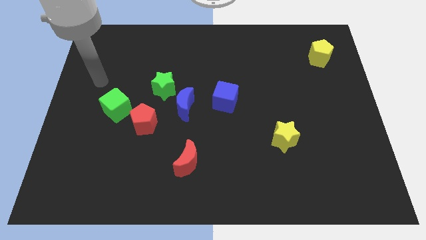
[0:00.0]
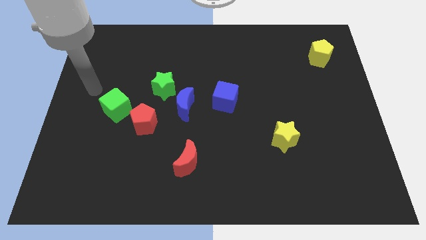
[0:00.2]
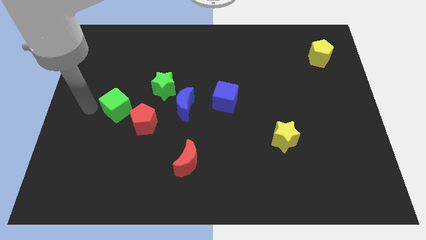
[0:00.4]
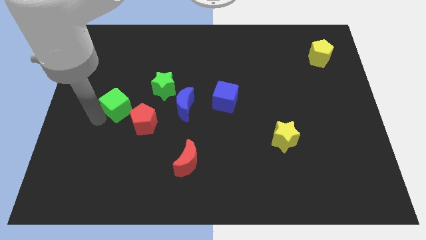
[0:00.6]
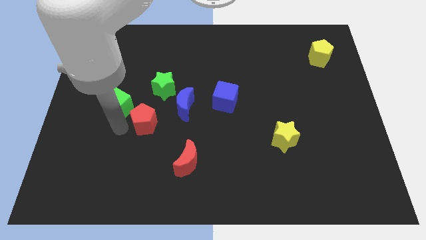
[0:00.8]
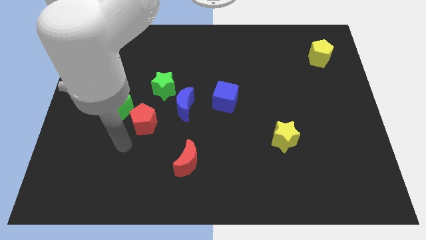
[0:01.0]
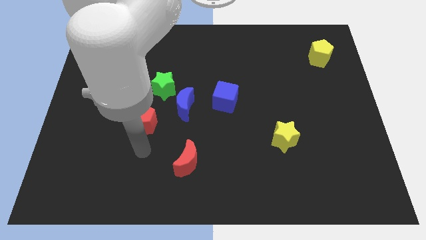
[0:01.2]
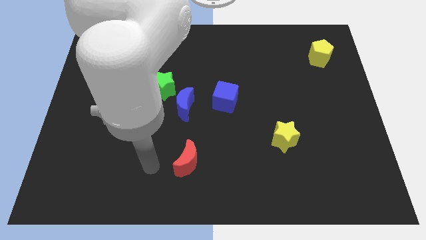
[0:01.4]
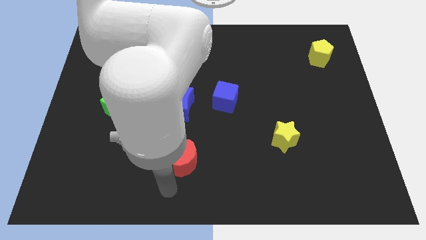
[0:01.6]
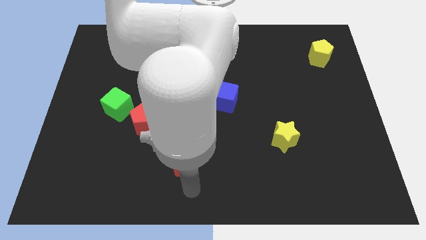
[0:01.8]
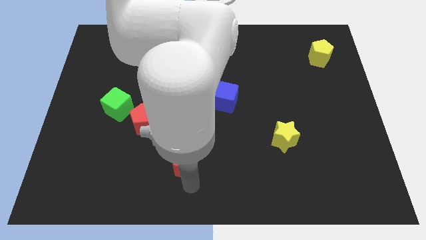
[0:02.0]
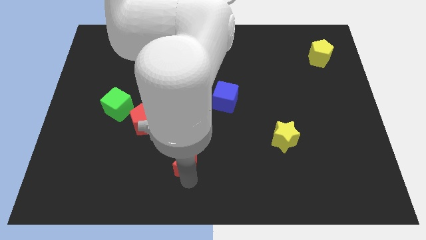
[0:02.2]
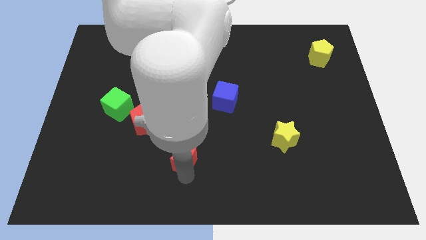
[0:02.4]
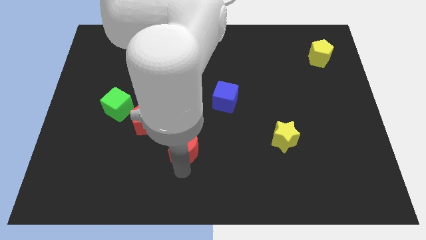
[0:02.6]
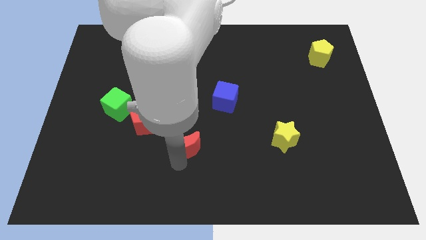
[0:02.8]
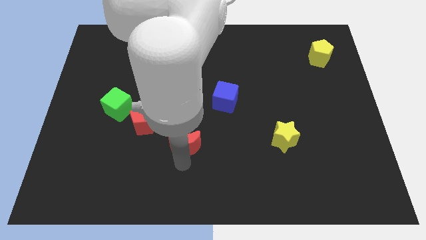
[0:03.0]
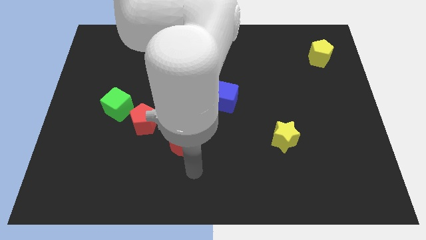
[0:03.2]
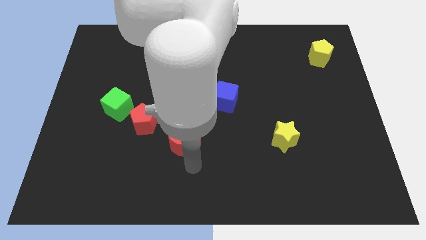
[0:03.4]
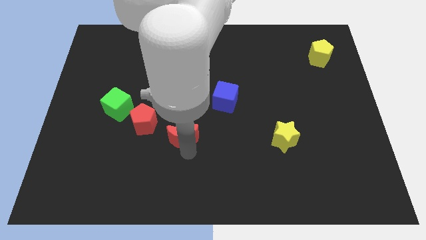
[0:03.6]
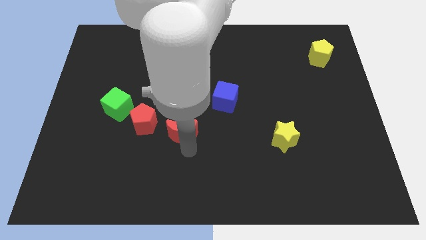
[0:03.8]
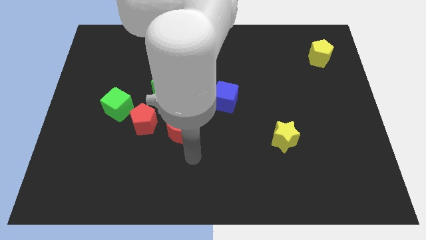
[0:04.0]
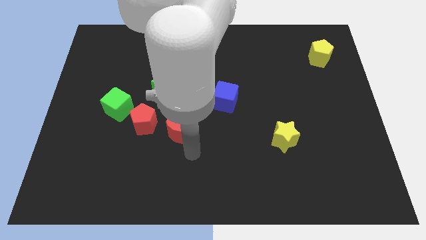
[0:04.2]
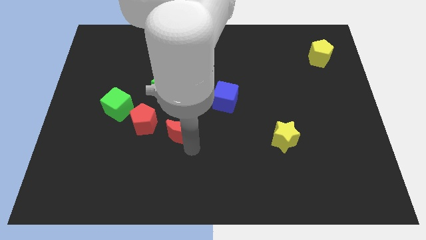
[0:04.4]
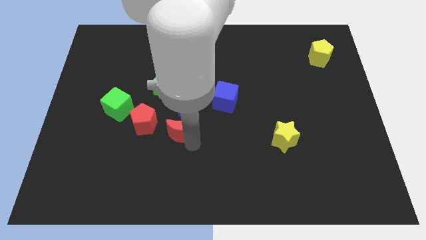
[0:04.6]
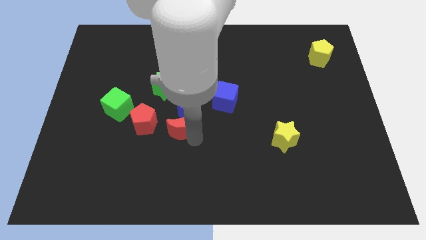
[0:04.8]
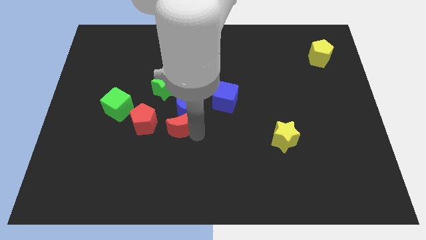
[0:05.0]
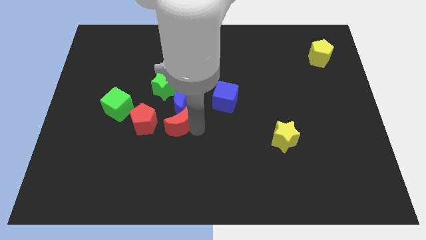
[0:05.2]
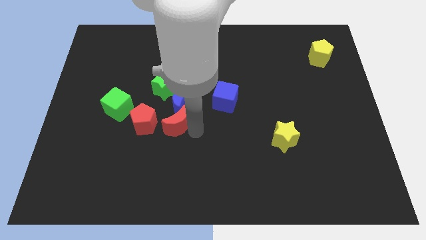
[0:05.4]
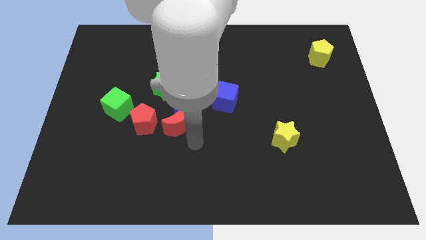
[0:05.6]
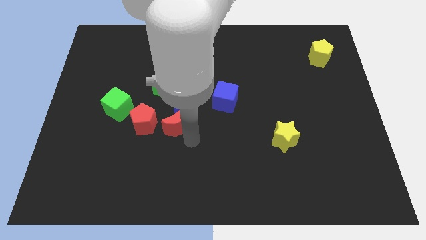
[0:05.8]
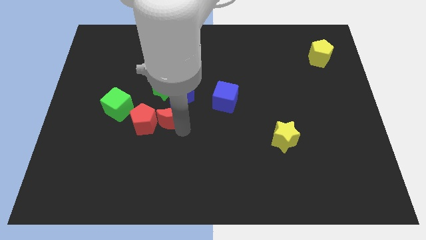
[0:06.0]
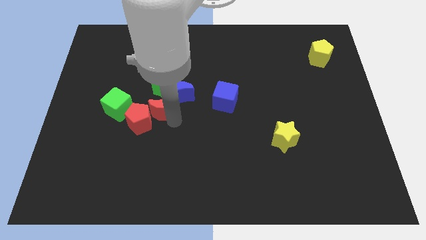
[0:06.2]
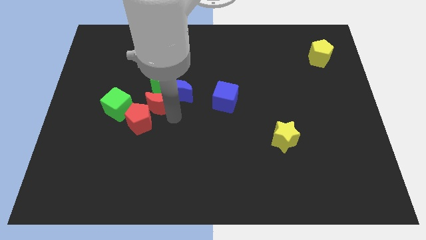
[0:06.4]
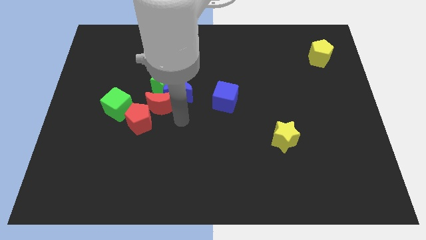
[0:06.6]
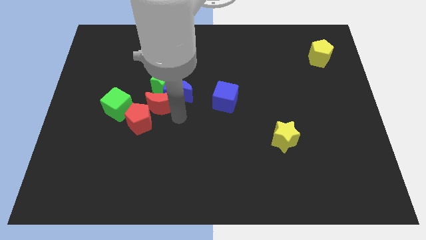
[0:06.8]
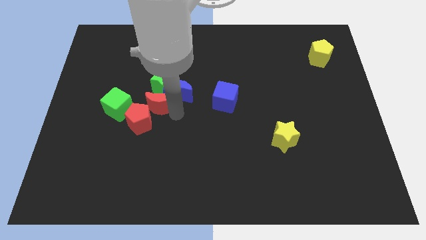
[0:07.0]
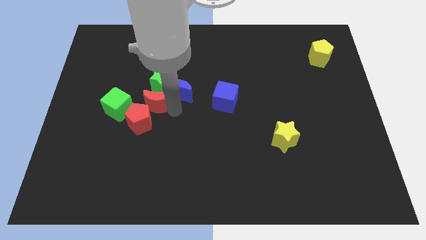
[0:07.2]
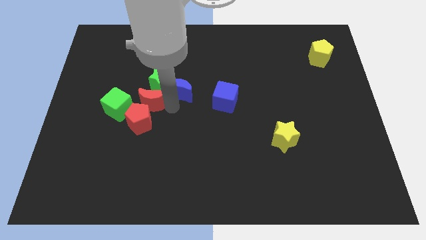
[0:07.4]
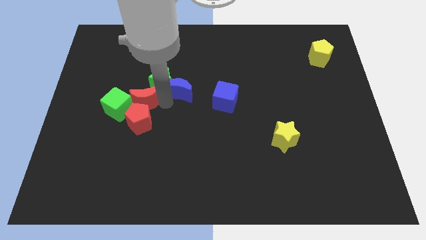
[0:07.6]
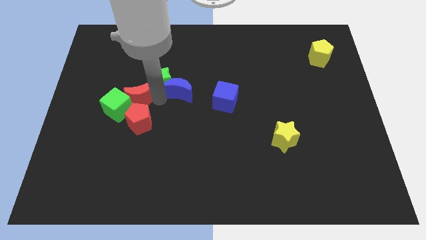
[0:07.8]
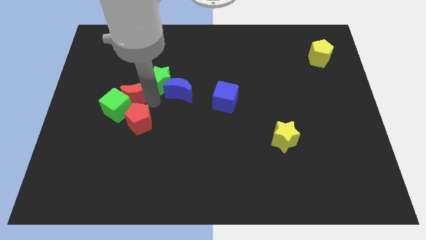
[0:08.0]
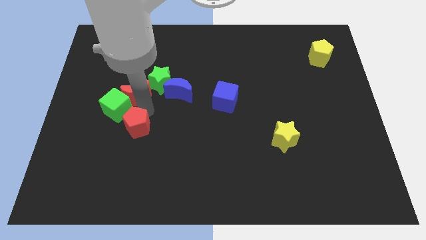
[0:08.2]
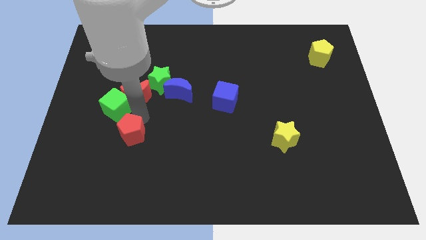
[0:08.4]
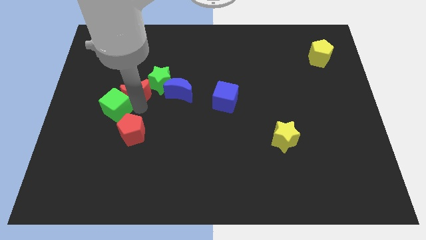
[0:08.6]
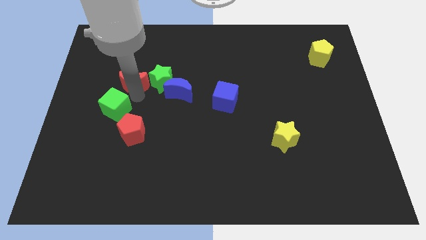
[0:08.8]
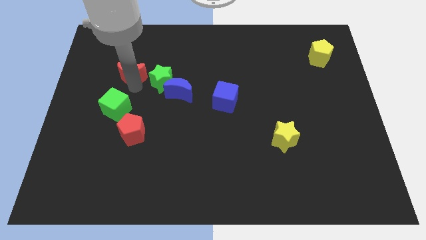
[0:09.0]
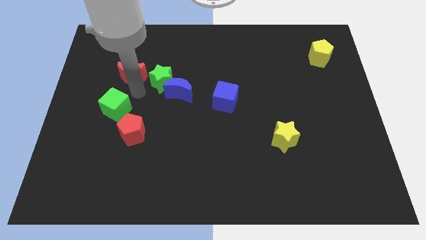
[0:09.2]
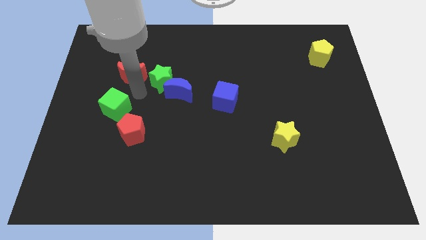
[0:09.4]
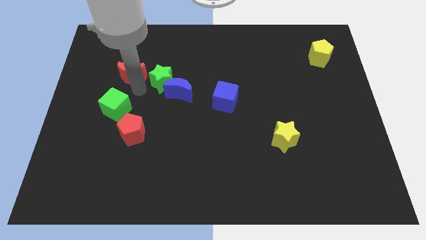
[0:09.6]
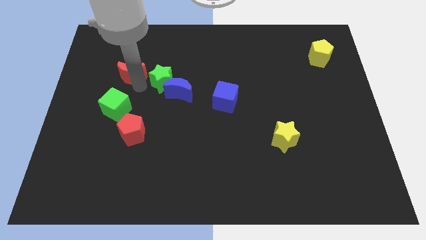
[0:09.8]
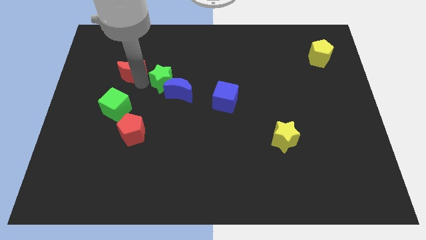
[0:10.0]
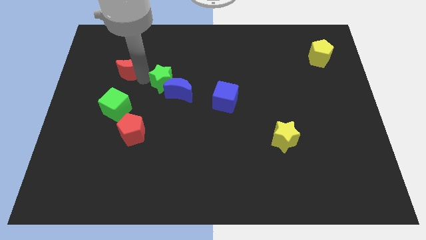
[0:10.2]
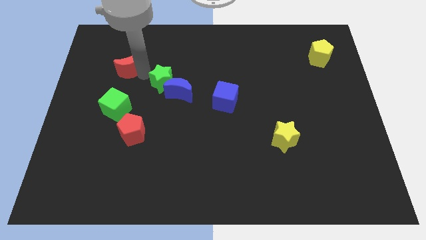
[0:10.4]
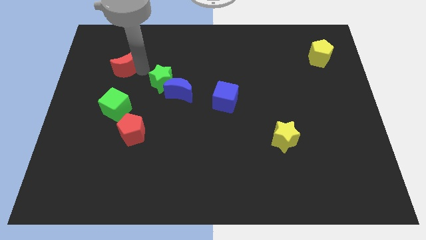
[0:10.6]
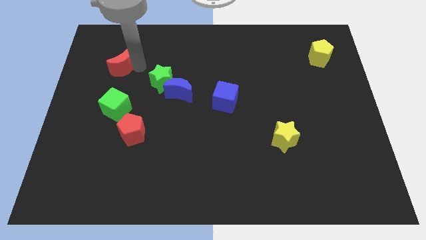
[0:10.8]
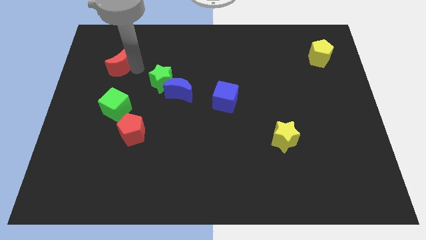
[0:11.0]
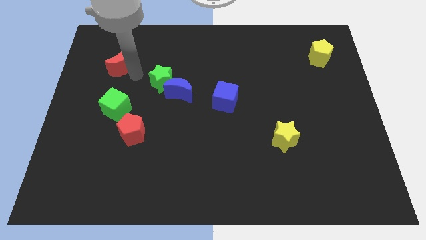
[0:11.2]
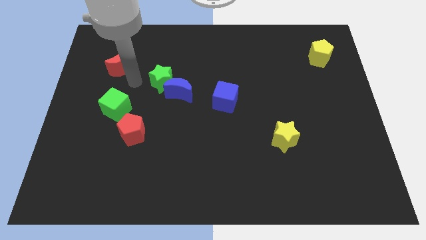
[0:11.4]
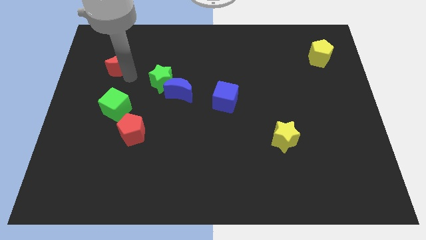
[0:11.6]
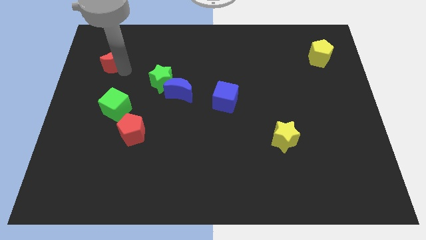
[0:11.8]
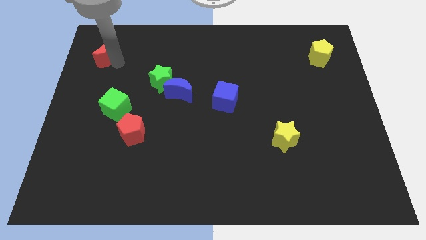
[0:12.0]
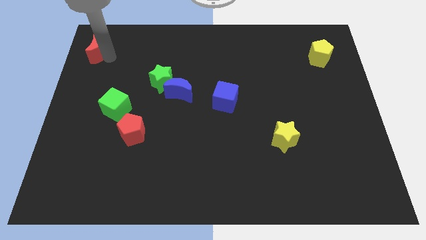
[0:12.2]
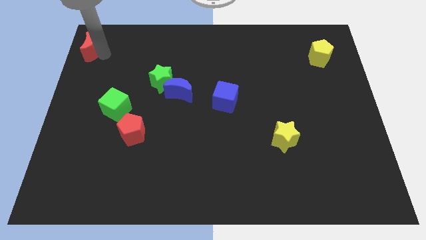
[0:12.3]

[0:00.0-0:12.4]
slide the red moon to the top left corner
